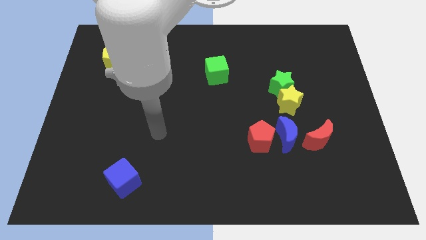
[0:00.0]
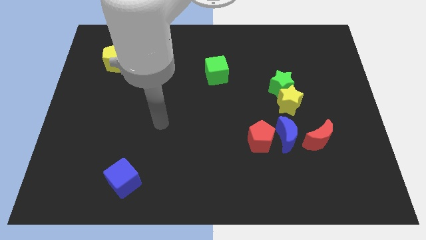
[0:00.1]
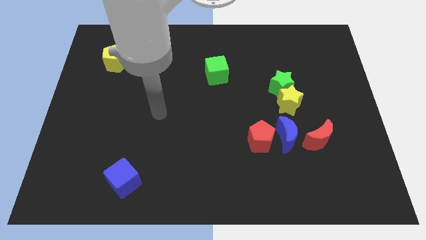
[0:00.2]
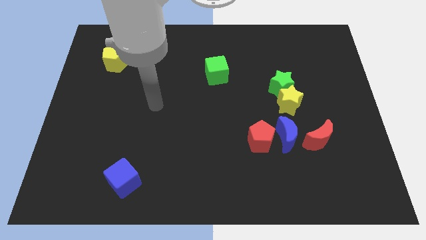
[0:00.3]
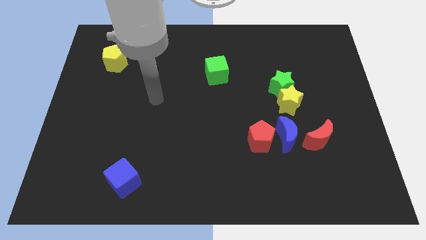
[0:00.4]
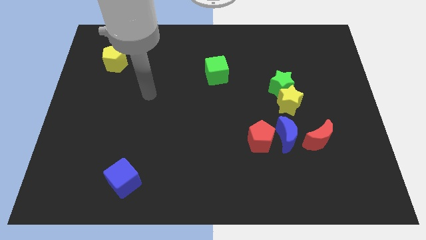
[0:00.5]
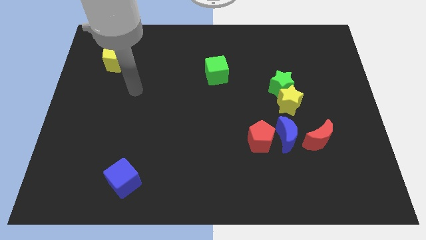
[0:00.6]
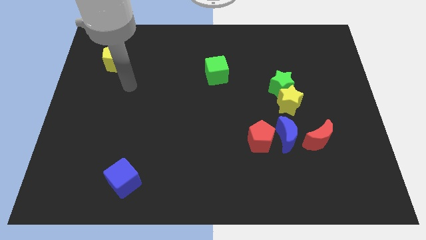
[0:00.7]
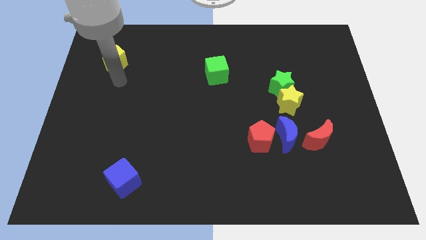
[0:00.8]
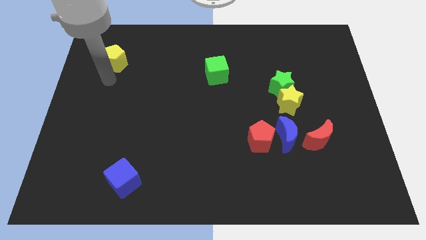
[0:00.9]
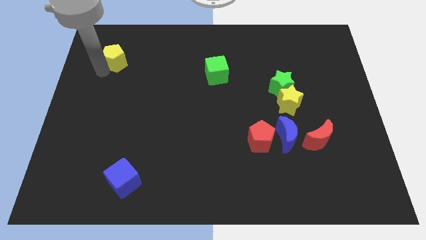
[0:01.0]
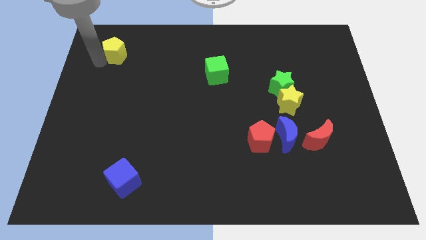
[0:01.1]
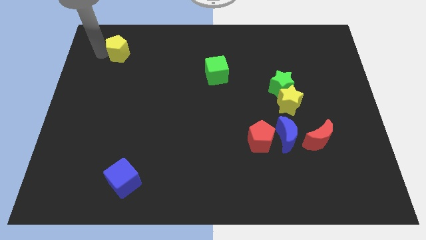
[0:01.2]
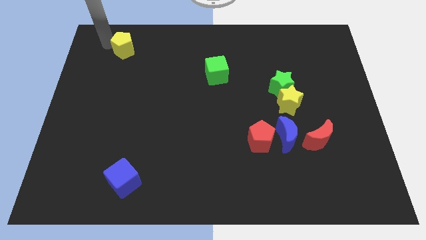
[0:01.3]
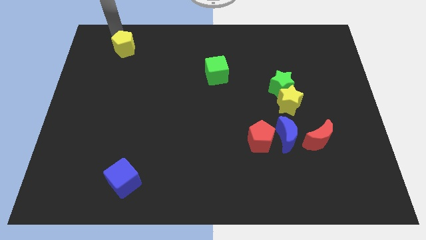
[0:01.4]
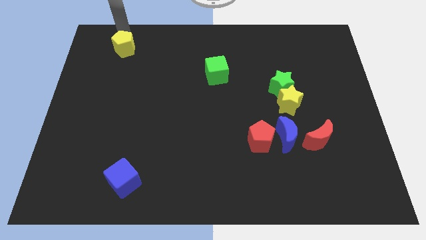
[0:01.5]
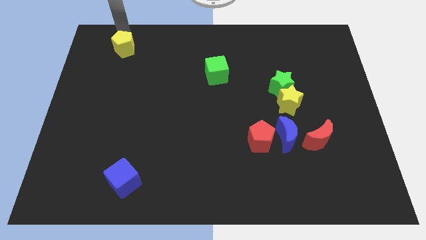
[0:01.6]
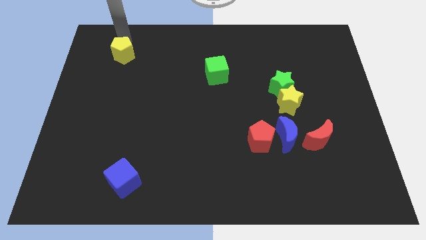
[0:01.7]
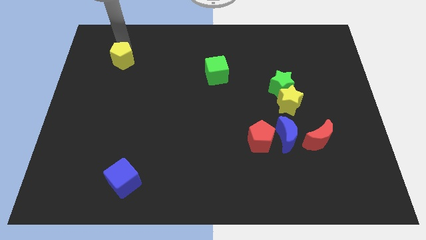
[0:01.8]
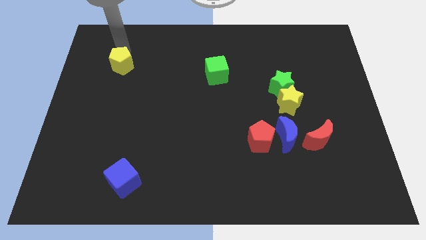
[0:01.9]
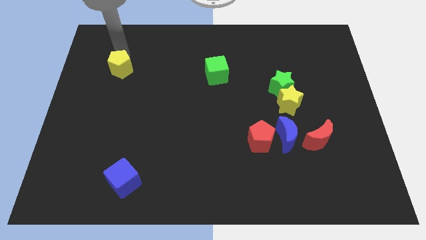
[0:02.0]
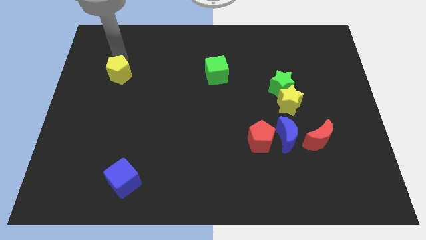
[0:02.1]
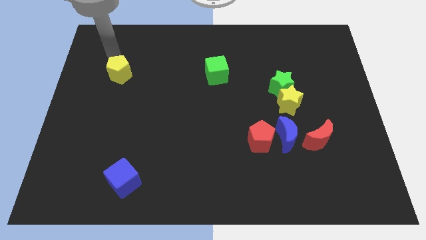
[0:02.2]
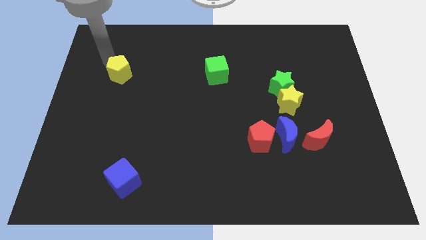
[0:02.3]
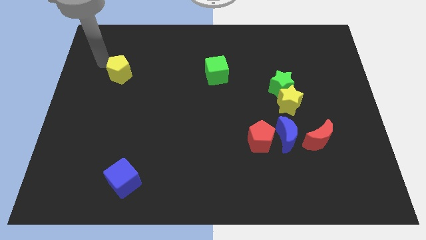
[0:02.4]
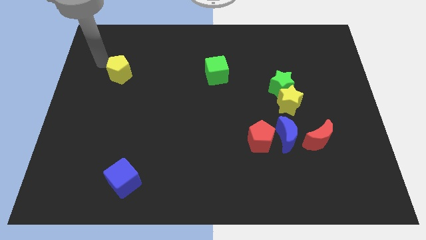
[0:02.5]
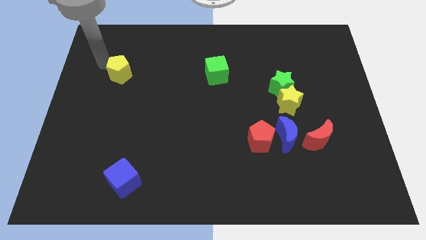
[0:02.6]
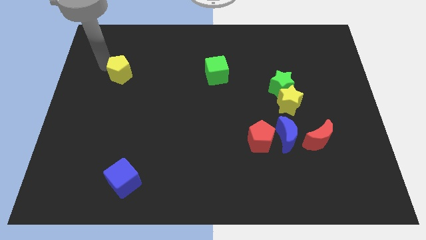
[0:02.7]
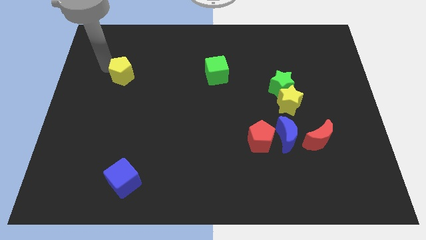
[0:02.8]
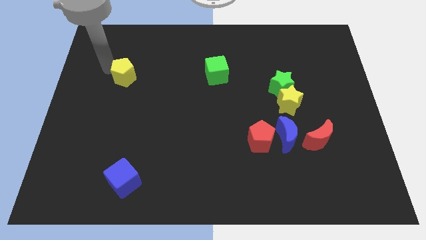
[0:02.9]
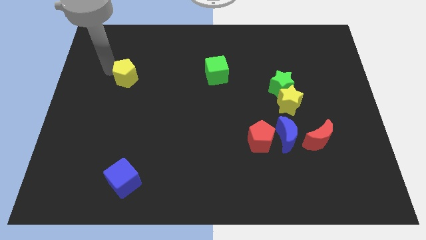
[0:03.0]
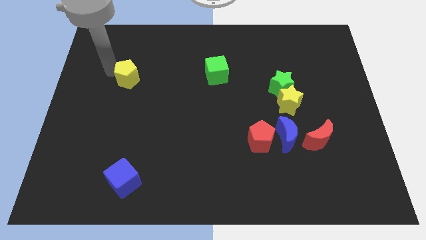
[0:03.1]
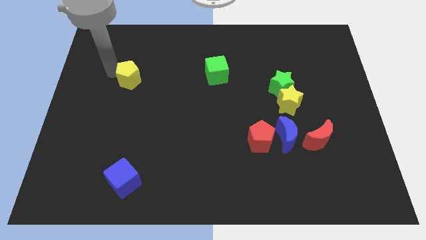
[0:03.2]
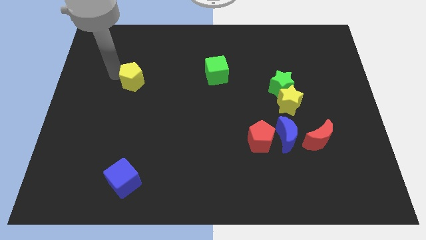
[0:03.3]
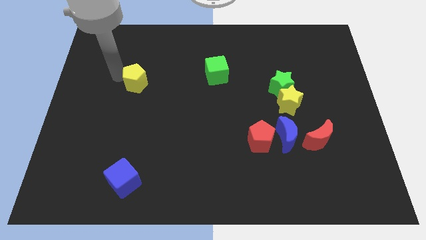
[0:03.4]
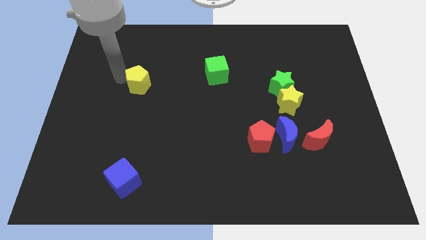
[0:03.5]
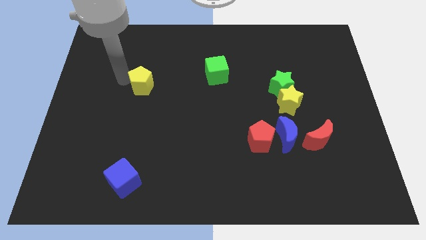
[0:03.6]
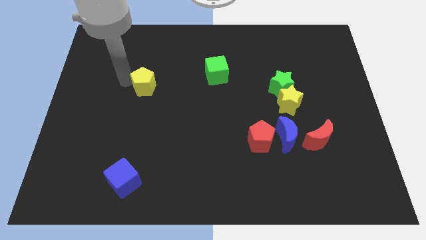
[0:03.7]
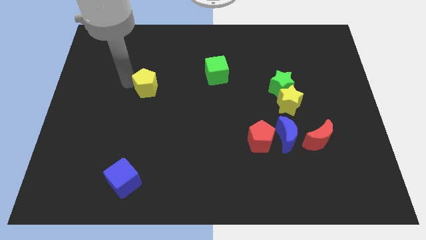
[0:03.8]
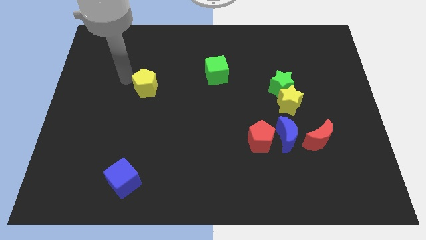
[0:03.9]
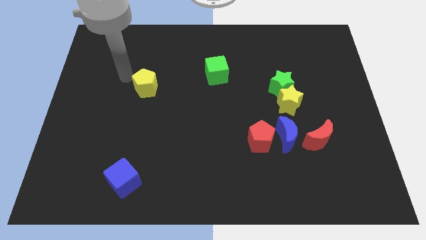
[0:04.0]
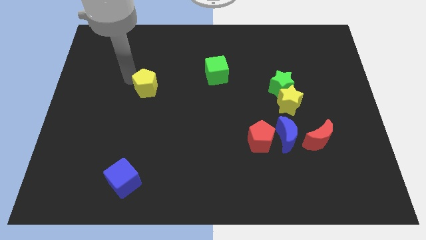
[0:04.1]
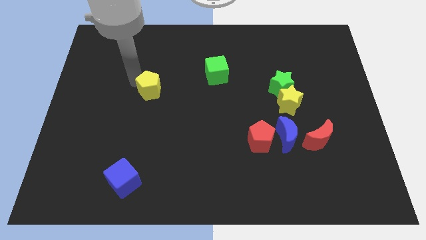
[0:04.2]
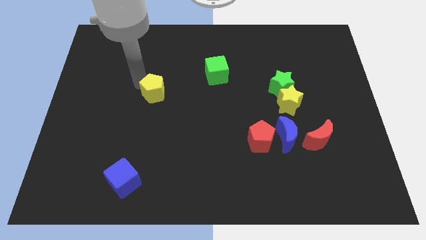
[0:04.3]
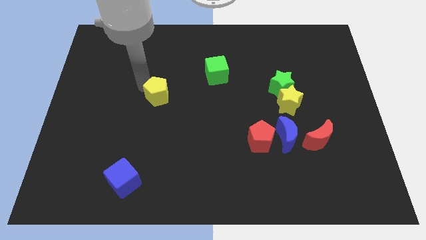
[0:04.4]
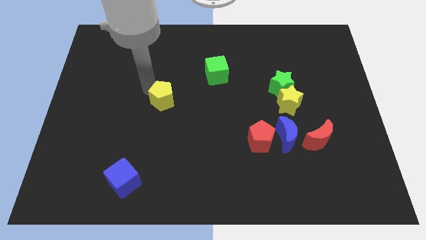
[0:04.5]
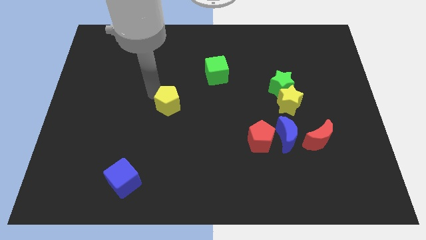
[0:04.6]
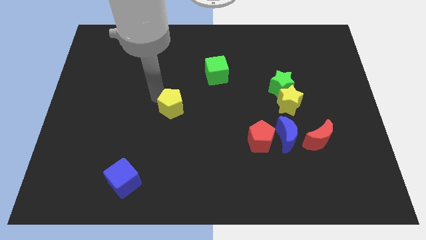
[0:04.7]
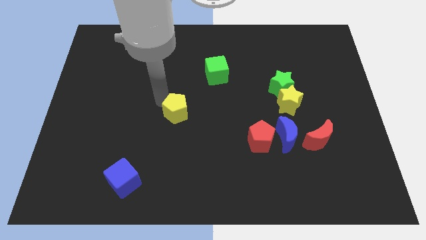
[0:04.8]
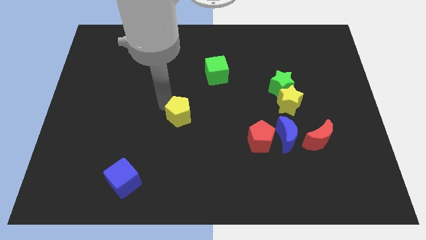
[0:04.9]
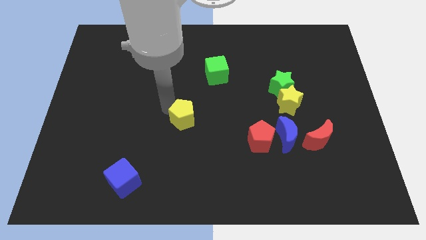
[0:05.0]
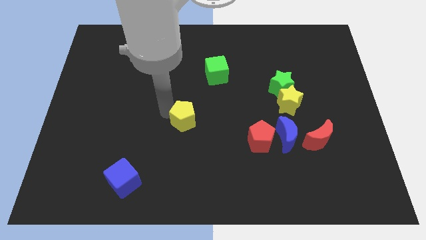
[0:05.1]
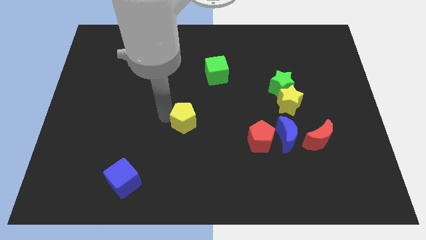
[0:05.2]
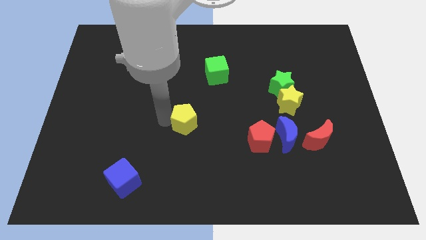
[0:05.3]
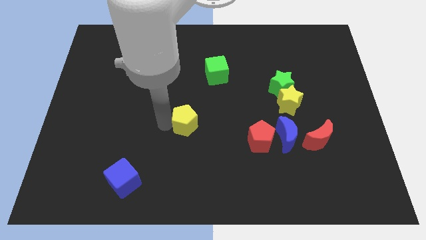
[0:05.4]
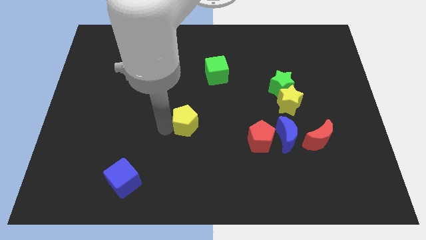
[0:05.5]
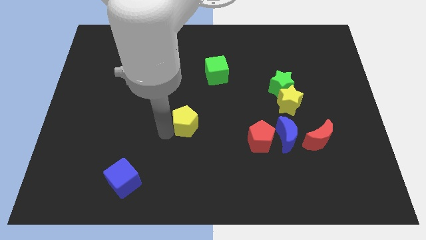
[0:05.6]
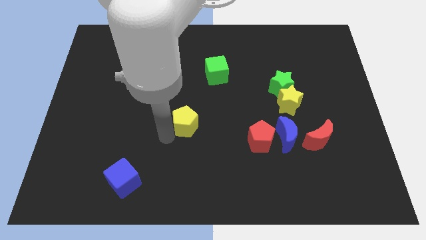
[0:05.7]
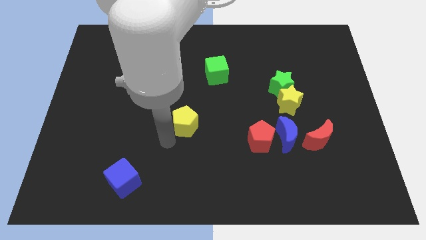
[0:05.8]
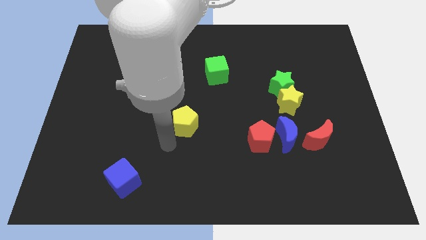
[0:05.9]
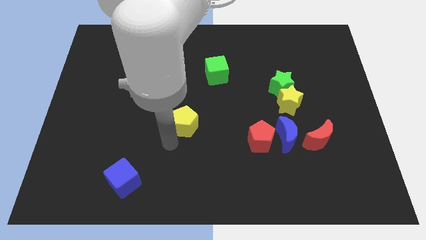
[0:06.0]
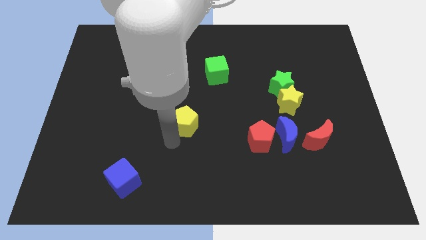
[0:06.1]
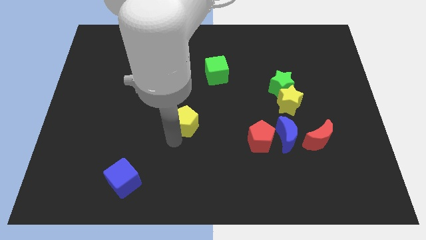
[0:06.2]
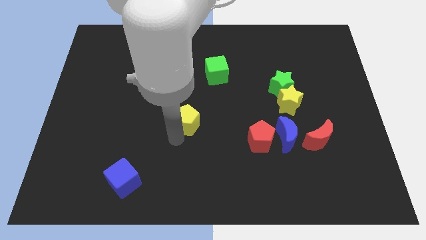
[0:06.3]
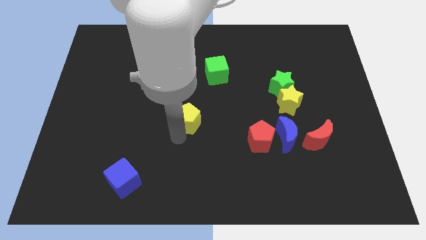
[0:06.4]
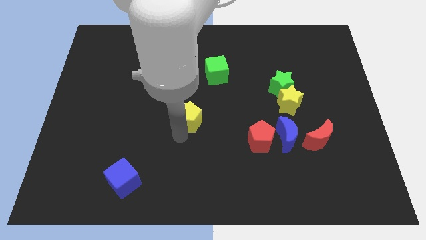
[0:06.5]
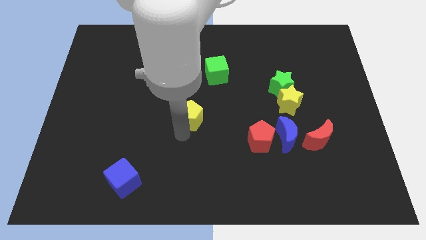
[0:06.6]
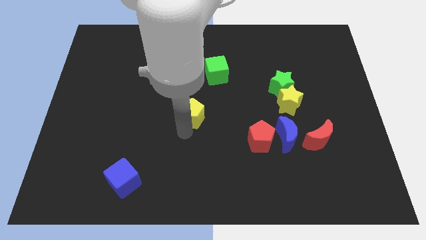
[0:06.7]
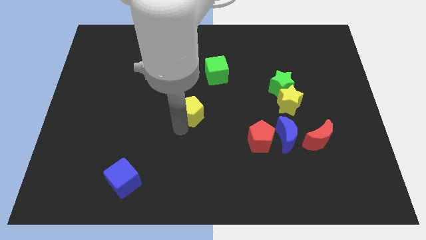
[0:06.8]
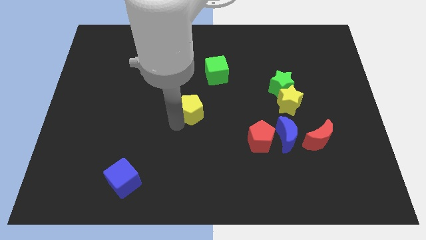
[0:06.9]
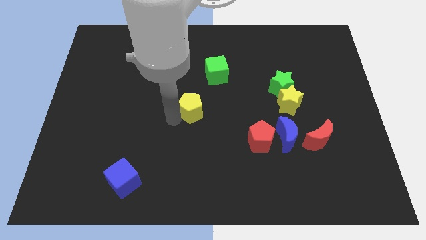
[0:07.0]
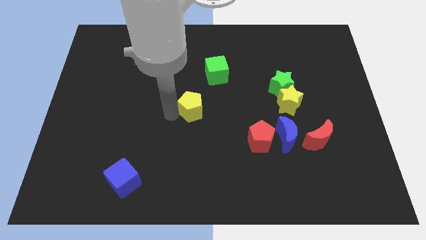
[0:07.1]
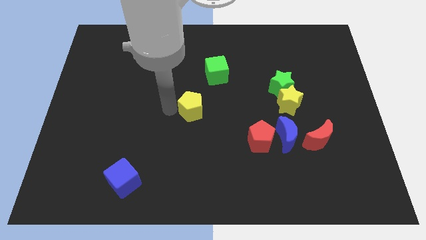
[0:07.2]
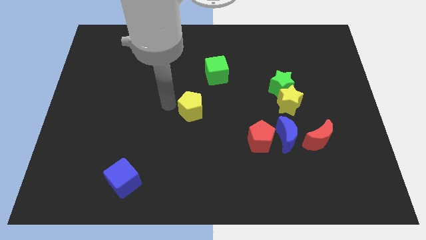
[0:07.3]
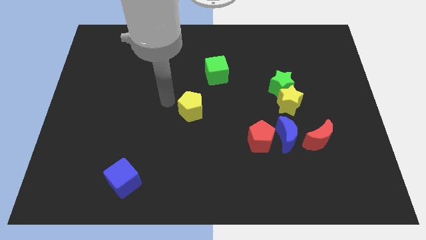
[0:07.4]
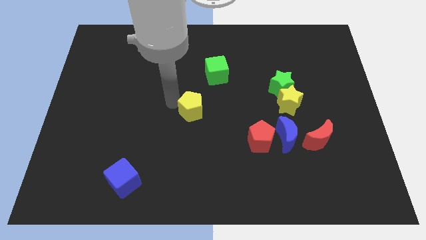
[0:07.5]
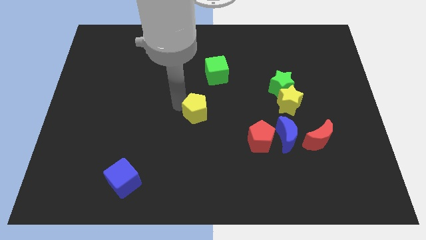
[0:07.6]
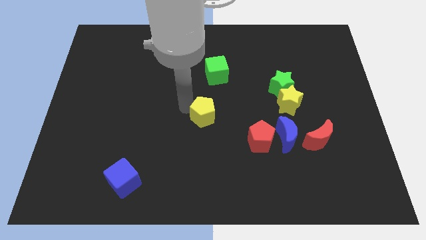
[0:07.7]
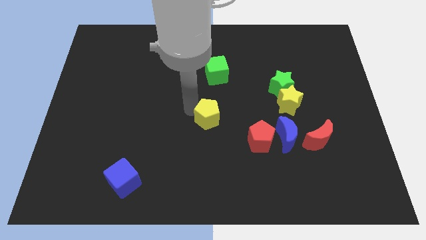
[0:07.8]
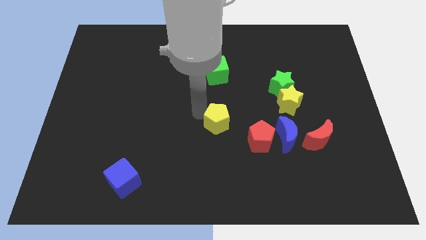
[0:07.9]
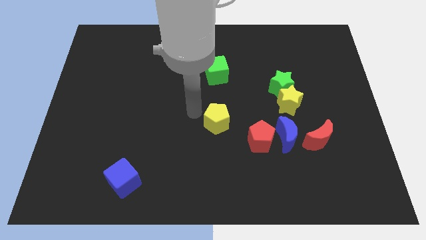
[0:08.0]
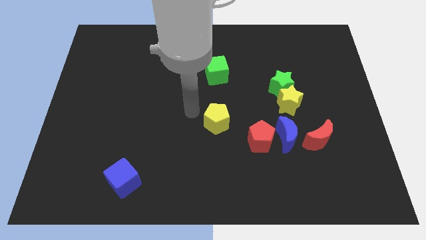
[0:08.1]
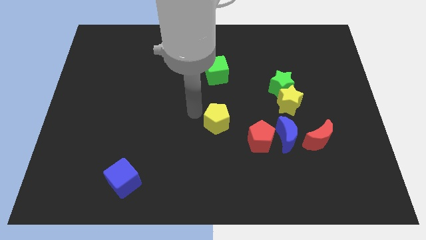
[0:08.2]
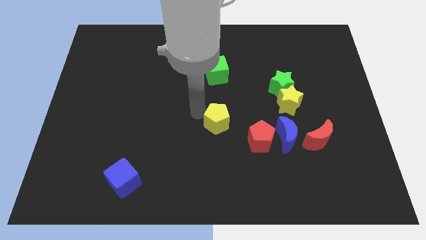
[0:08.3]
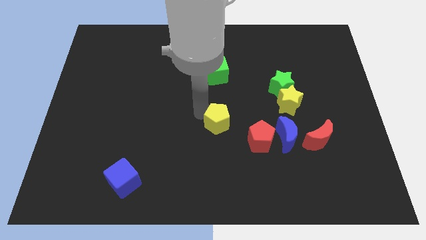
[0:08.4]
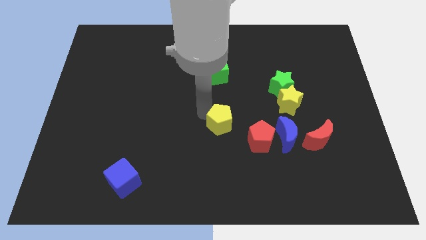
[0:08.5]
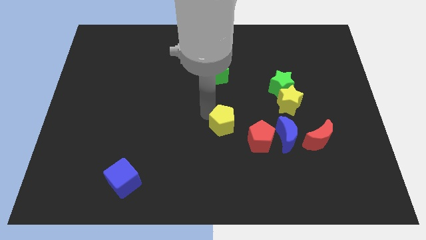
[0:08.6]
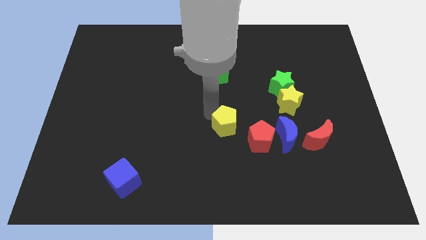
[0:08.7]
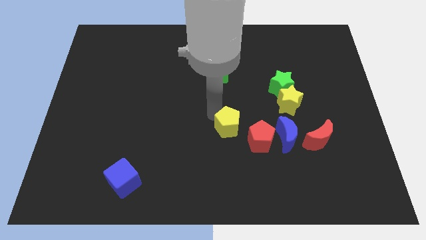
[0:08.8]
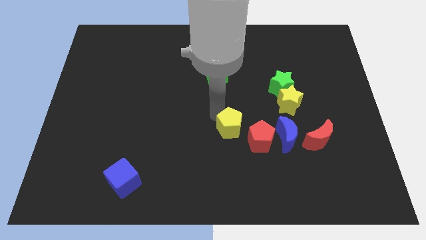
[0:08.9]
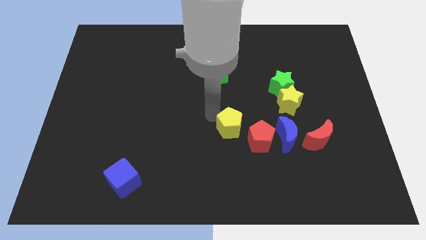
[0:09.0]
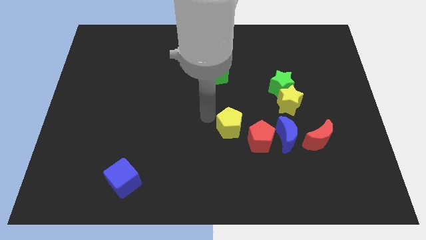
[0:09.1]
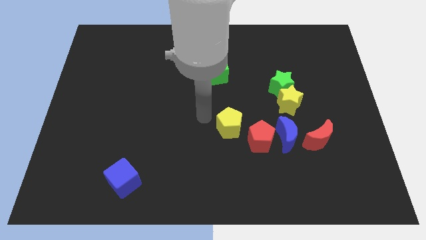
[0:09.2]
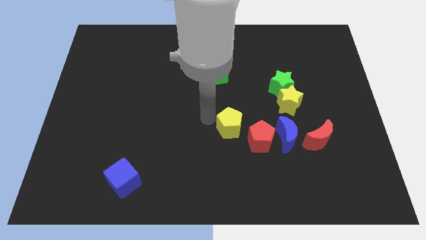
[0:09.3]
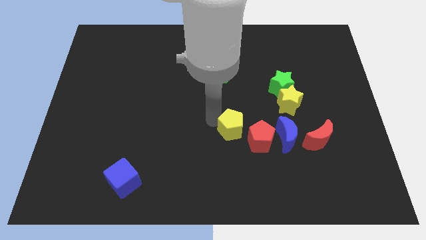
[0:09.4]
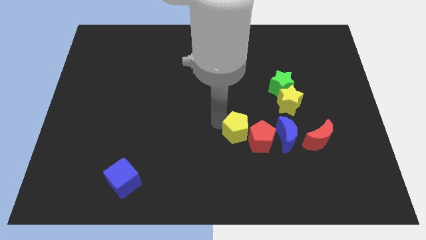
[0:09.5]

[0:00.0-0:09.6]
put the yellow pentagon towards the red pentagon
